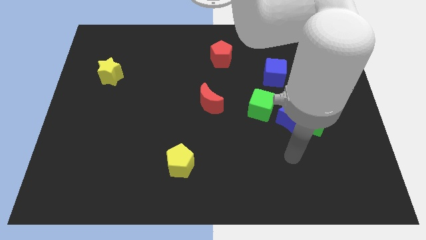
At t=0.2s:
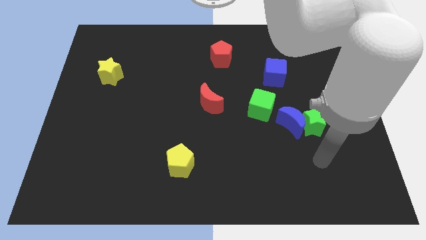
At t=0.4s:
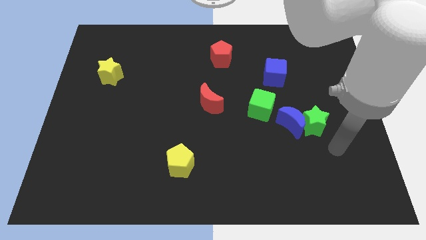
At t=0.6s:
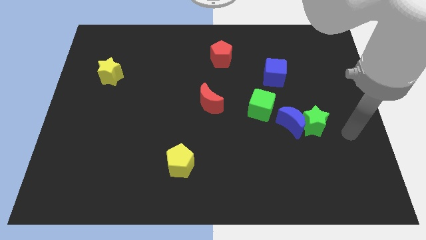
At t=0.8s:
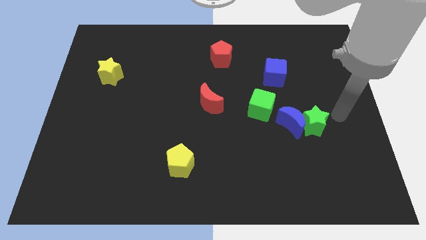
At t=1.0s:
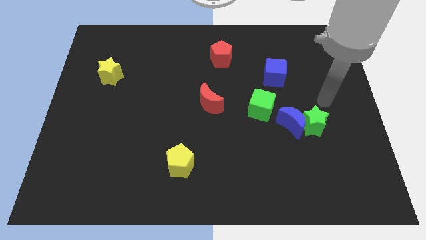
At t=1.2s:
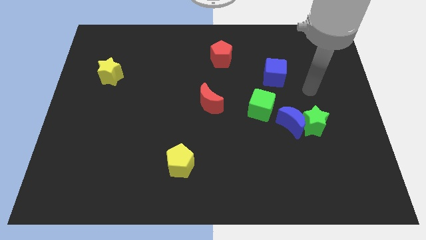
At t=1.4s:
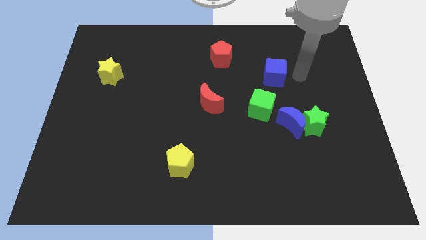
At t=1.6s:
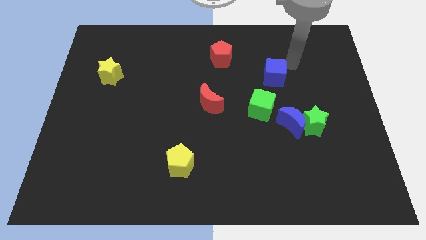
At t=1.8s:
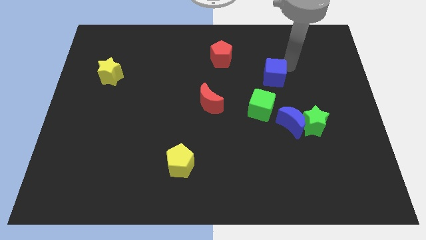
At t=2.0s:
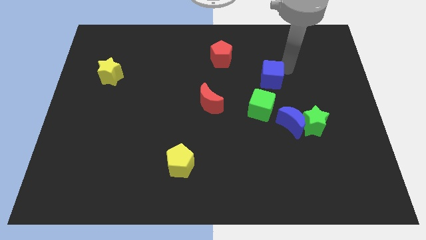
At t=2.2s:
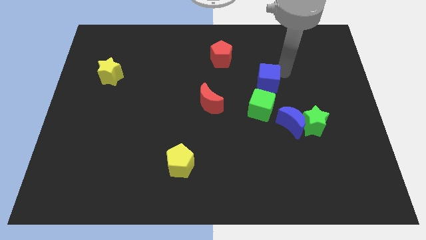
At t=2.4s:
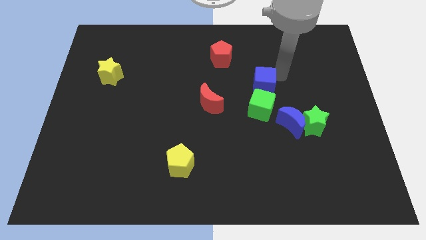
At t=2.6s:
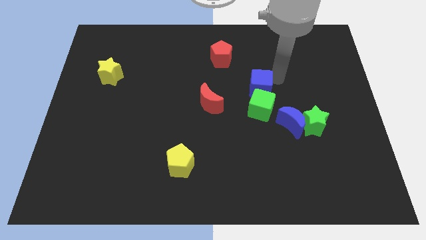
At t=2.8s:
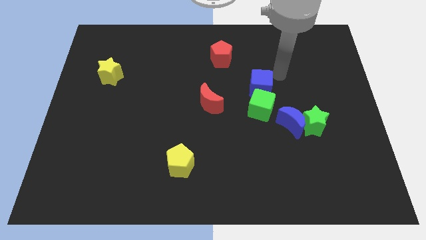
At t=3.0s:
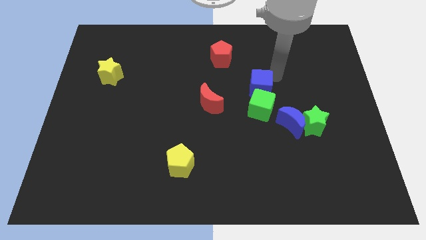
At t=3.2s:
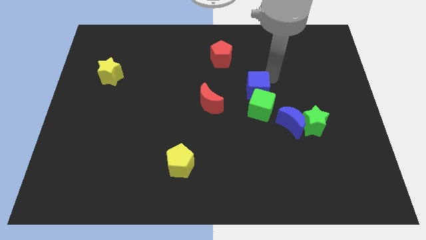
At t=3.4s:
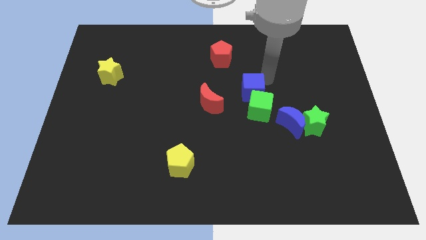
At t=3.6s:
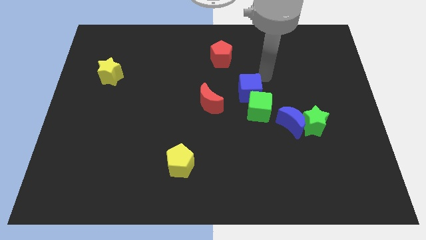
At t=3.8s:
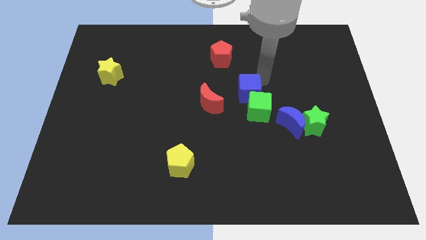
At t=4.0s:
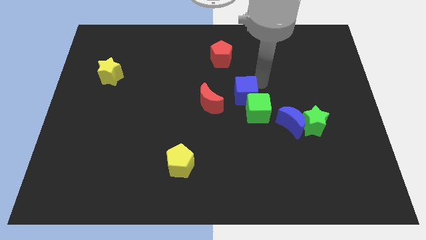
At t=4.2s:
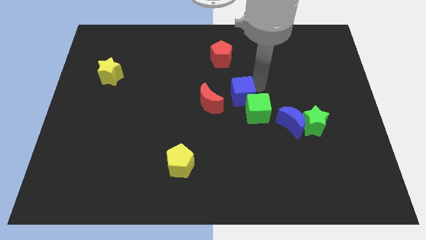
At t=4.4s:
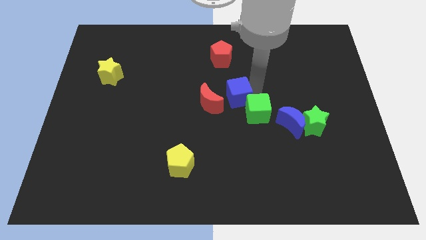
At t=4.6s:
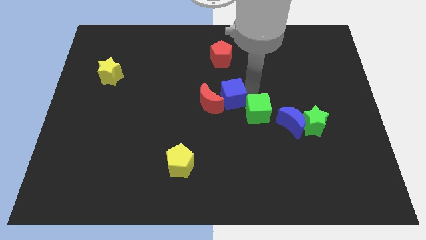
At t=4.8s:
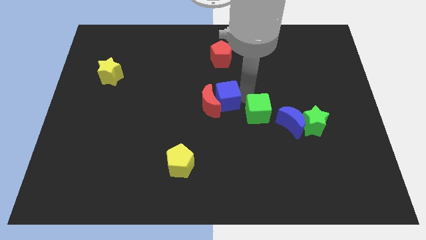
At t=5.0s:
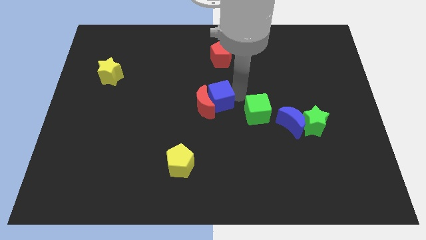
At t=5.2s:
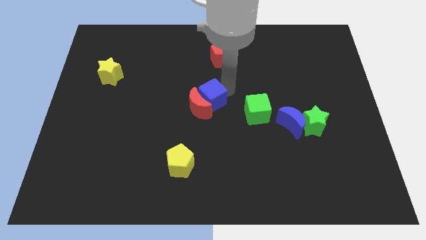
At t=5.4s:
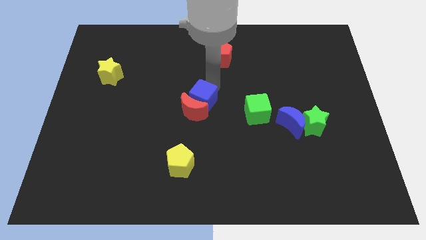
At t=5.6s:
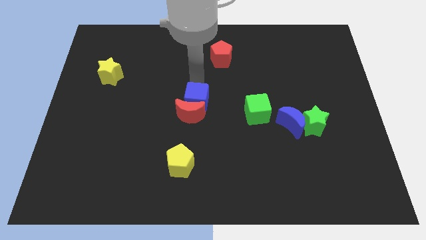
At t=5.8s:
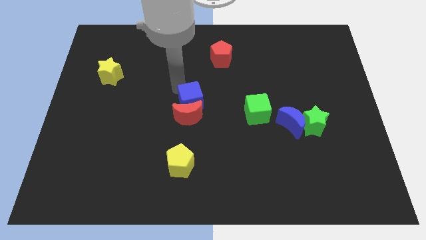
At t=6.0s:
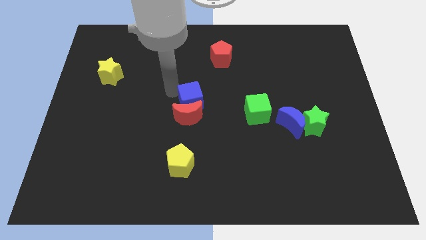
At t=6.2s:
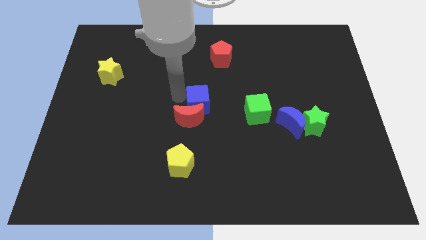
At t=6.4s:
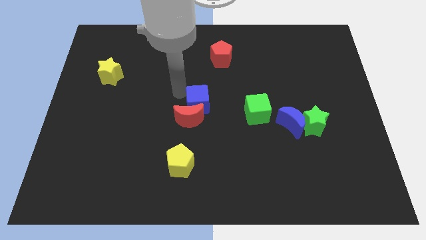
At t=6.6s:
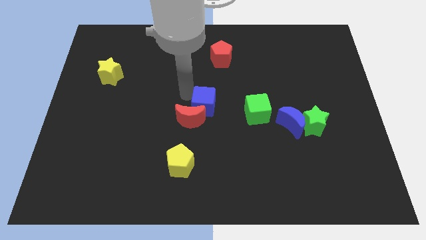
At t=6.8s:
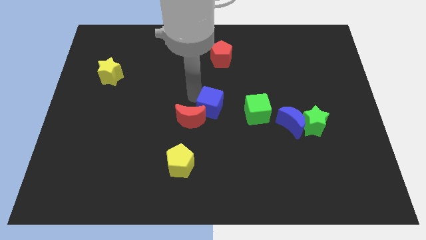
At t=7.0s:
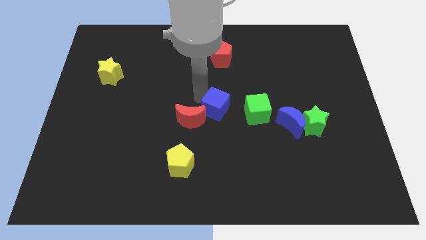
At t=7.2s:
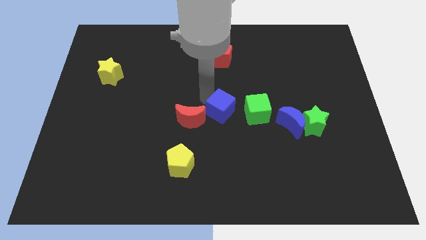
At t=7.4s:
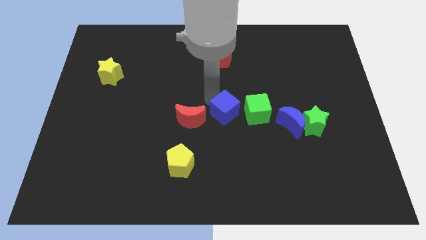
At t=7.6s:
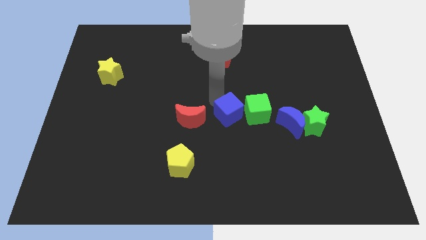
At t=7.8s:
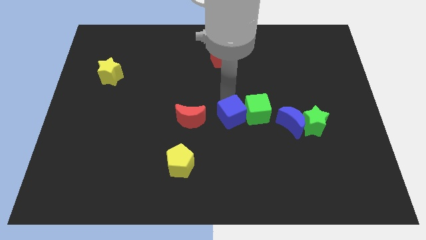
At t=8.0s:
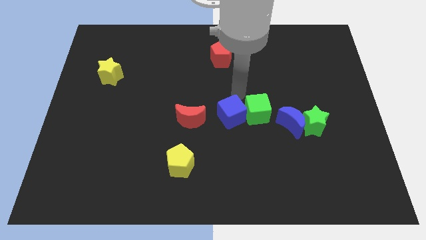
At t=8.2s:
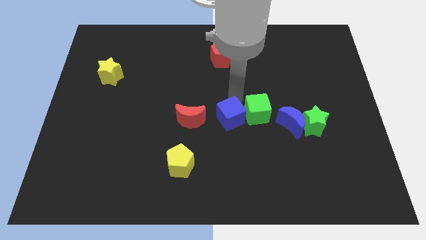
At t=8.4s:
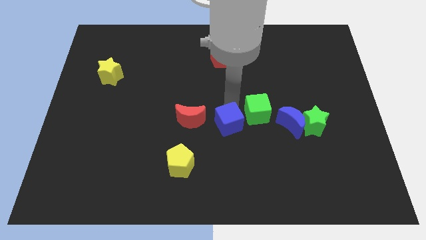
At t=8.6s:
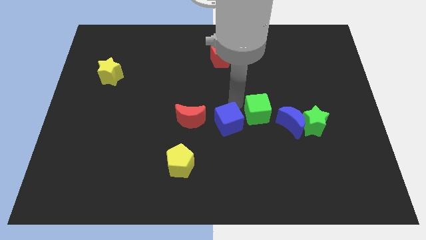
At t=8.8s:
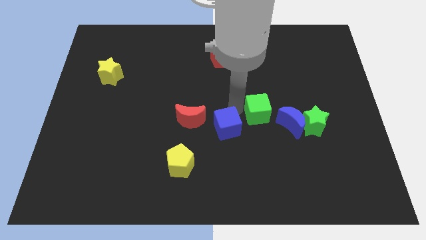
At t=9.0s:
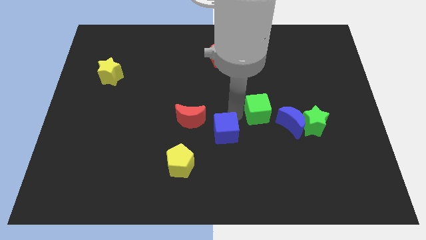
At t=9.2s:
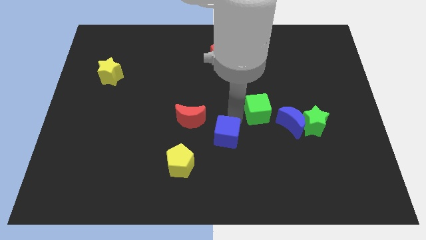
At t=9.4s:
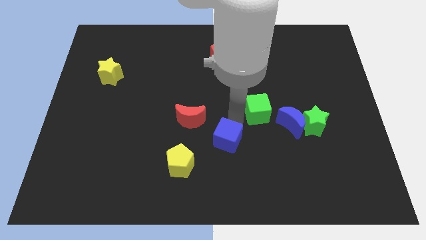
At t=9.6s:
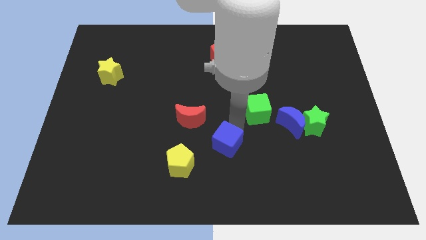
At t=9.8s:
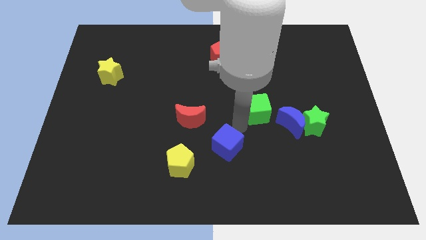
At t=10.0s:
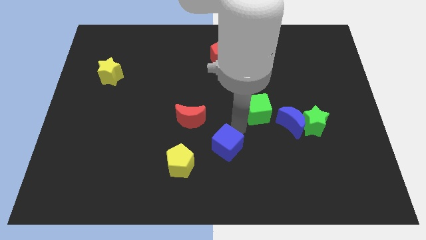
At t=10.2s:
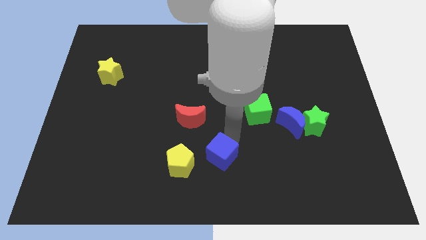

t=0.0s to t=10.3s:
push the blue cube to the bottom

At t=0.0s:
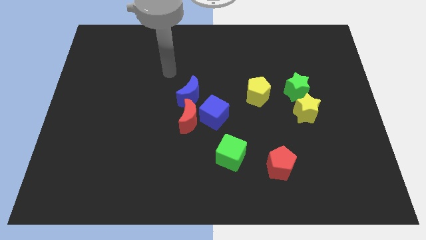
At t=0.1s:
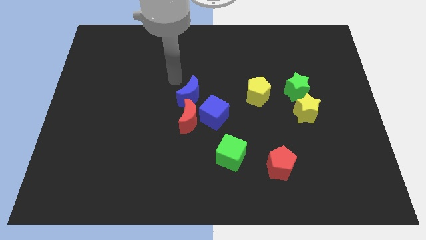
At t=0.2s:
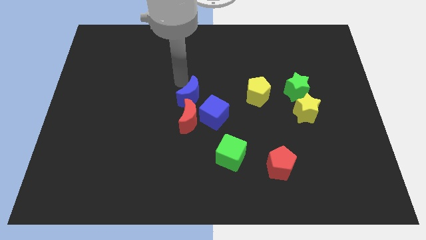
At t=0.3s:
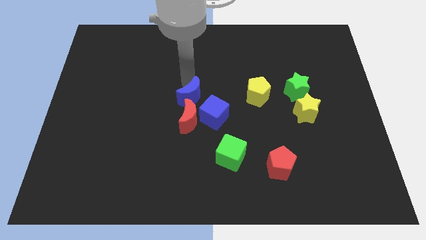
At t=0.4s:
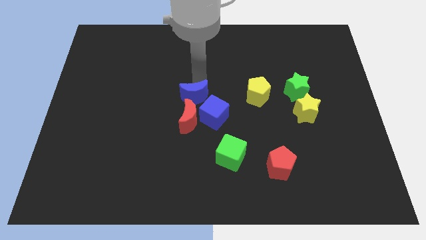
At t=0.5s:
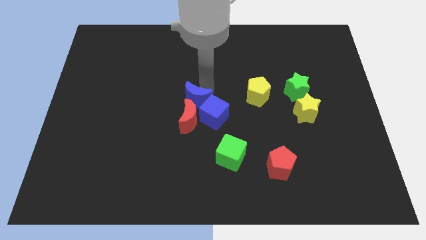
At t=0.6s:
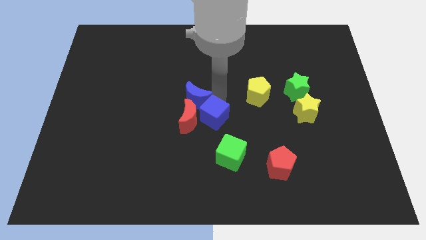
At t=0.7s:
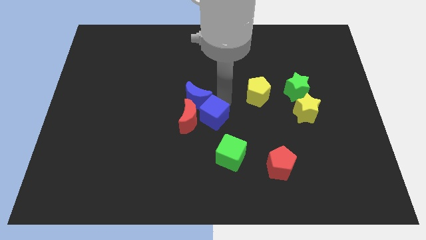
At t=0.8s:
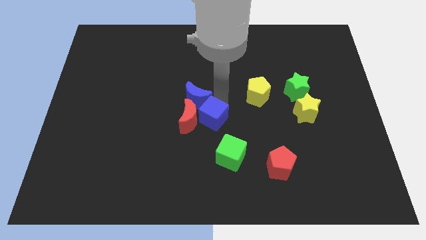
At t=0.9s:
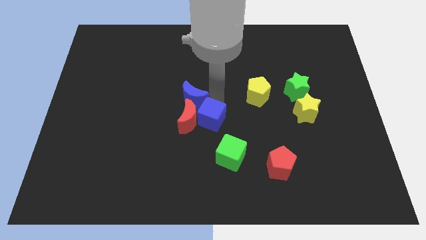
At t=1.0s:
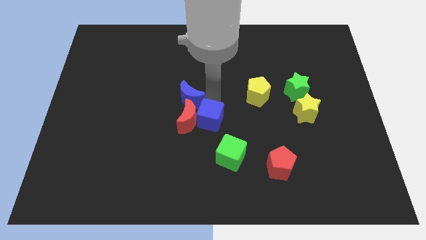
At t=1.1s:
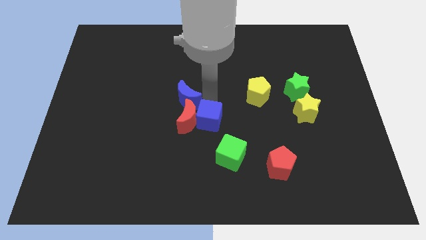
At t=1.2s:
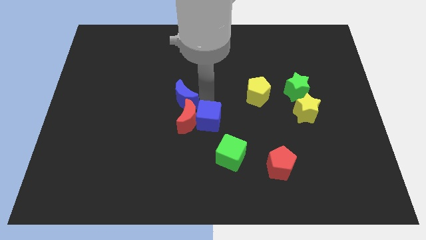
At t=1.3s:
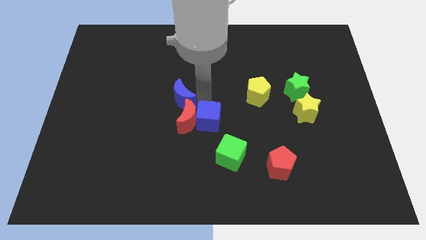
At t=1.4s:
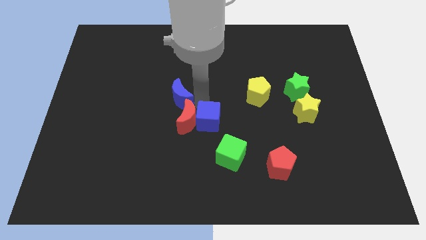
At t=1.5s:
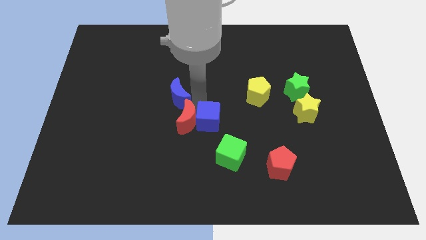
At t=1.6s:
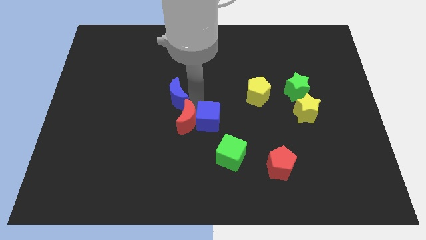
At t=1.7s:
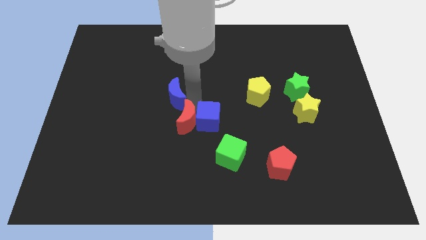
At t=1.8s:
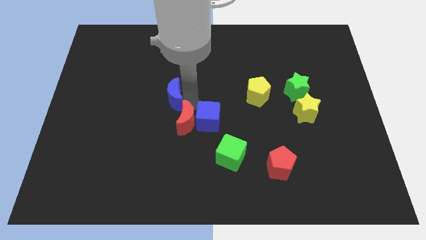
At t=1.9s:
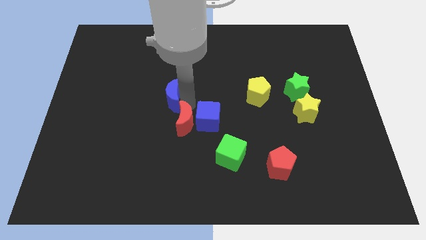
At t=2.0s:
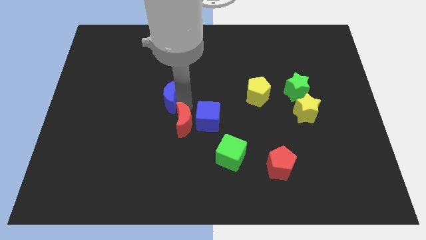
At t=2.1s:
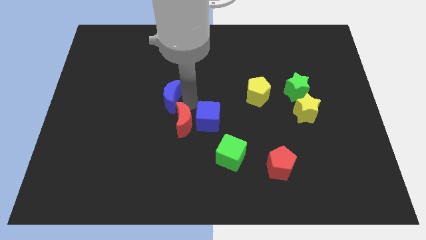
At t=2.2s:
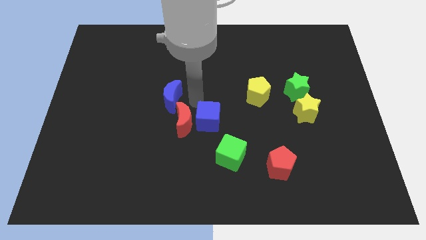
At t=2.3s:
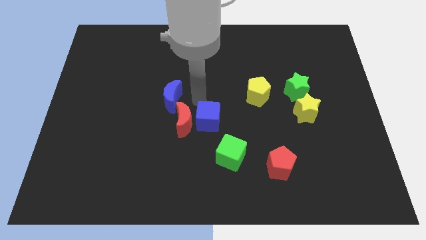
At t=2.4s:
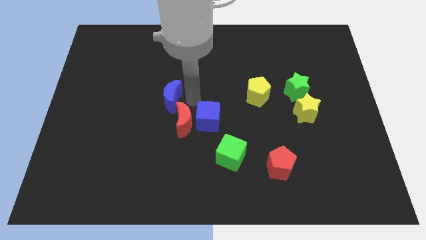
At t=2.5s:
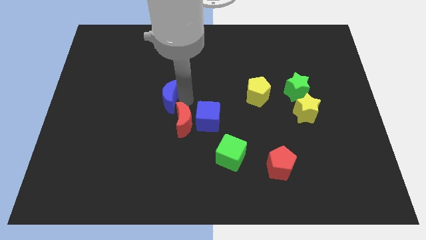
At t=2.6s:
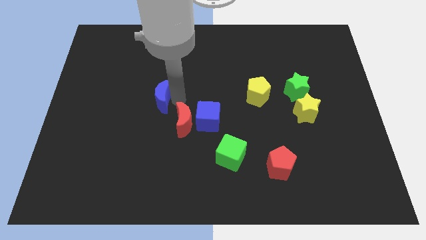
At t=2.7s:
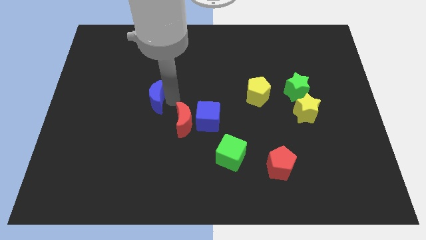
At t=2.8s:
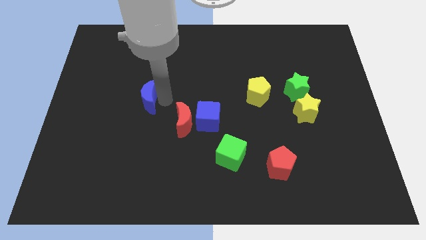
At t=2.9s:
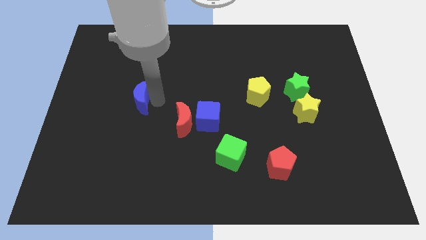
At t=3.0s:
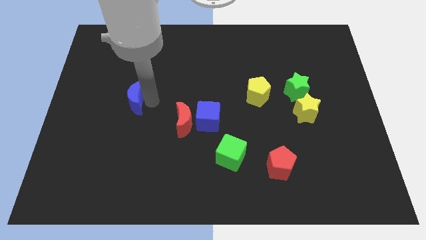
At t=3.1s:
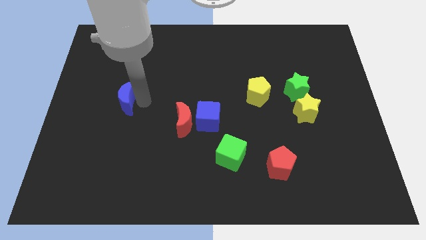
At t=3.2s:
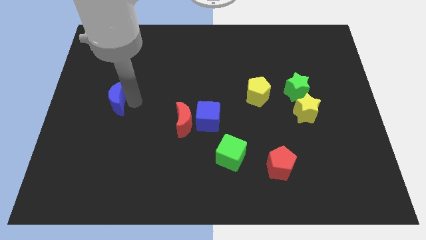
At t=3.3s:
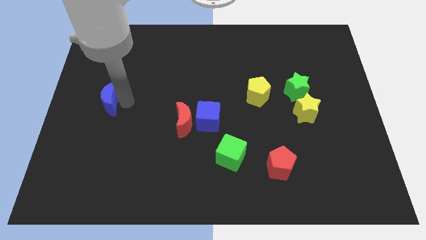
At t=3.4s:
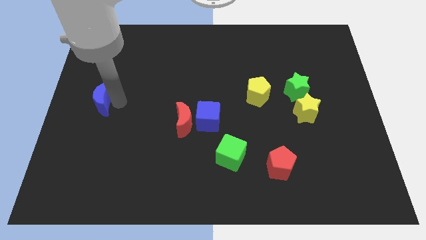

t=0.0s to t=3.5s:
slide the blue moon to the center left
